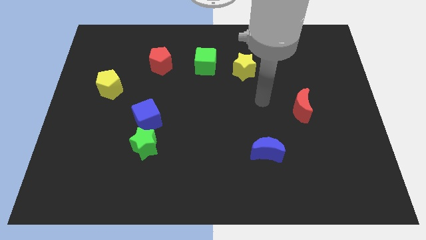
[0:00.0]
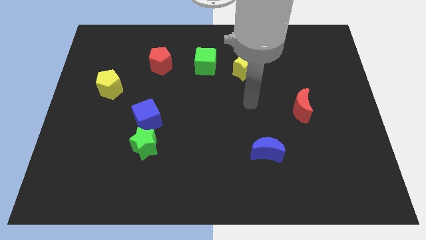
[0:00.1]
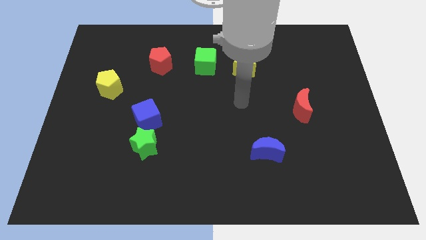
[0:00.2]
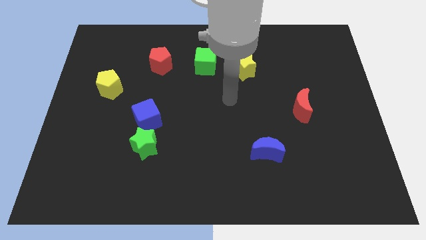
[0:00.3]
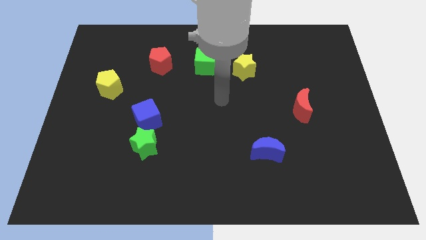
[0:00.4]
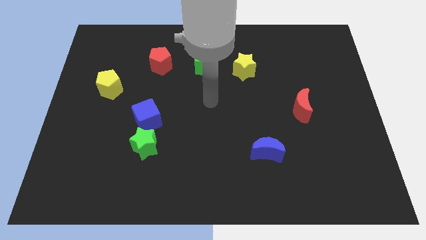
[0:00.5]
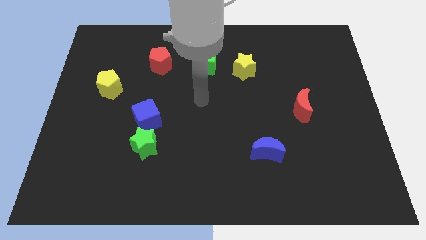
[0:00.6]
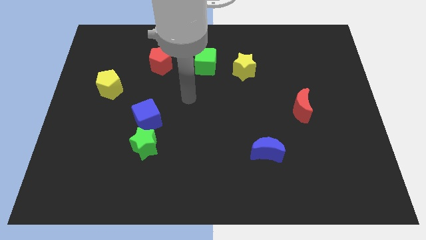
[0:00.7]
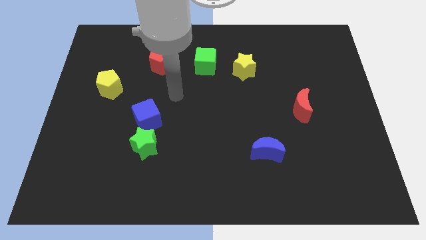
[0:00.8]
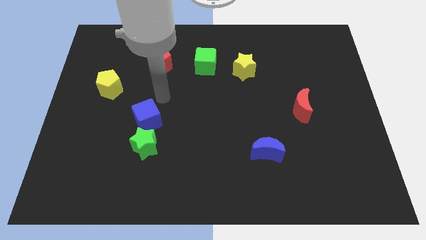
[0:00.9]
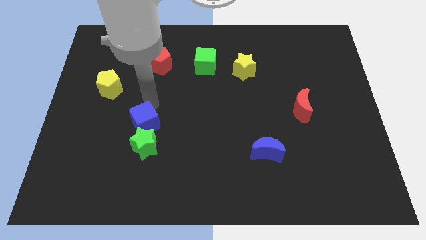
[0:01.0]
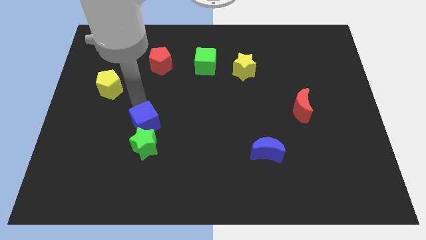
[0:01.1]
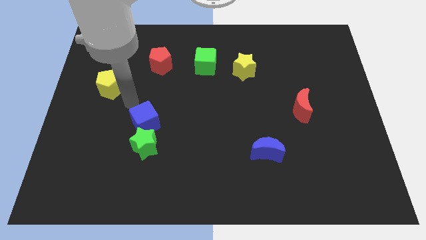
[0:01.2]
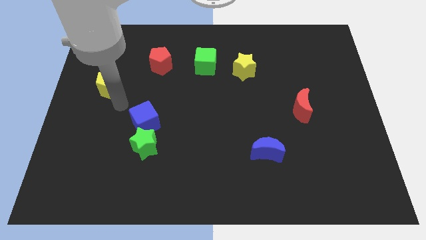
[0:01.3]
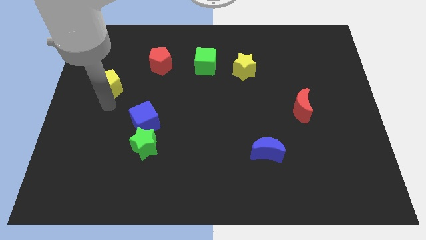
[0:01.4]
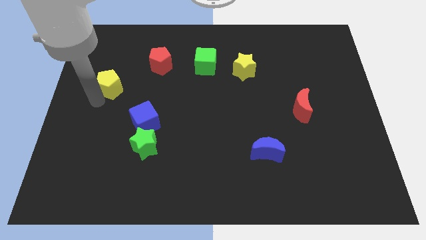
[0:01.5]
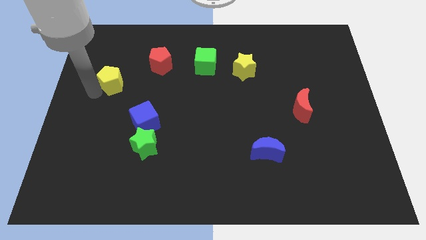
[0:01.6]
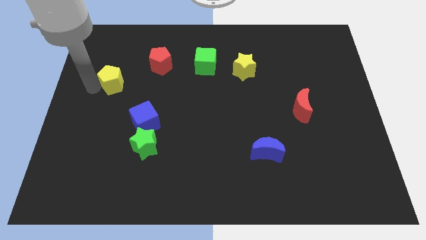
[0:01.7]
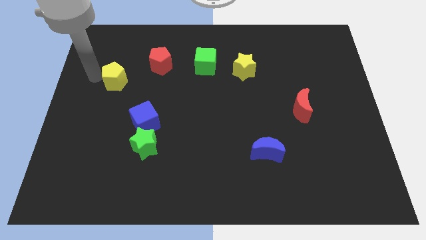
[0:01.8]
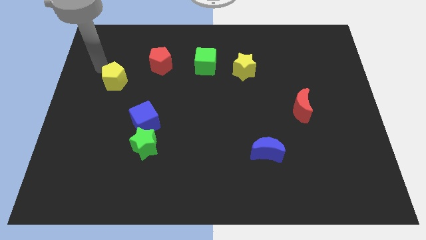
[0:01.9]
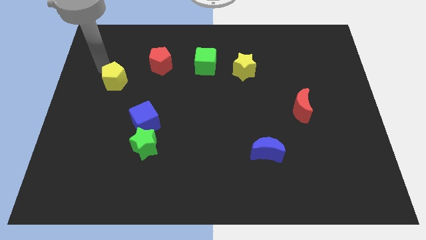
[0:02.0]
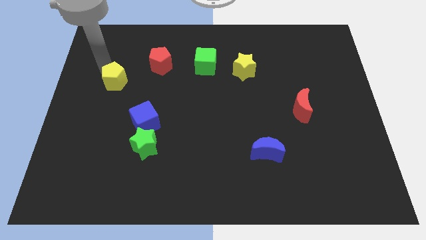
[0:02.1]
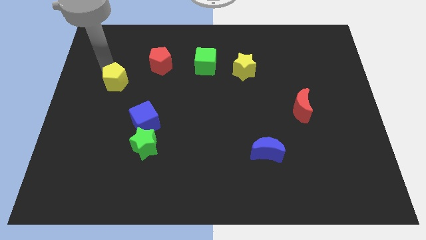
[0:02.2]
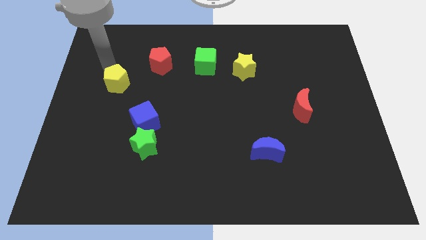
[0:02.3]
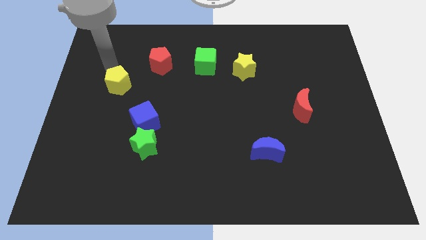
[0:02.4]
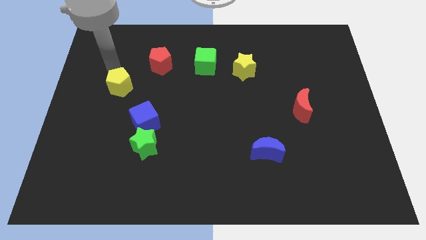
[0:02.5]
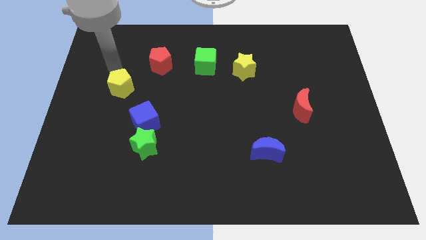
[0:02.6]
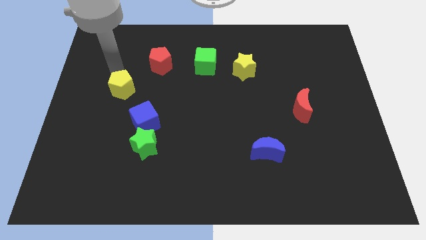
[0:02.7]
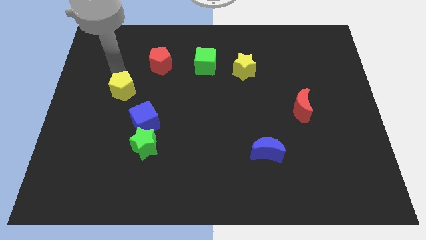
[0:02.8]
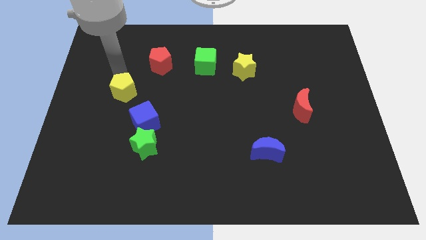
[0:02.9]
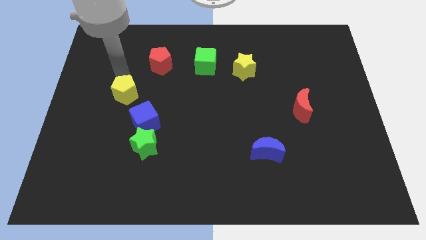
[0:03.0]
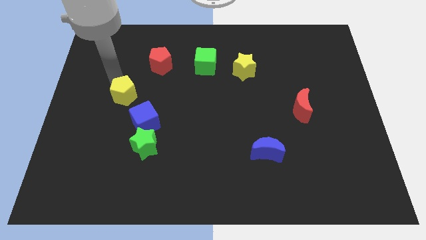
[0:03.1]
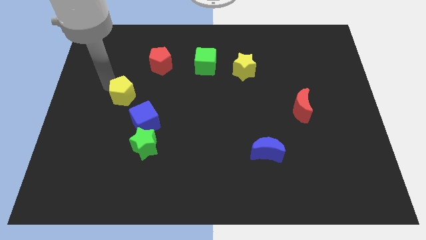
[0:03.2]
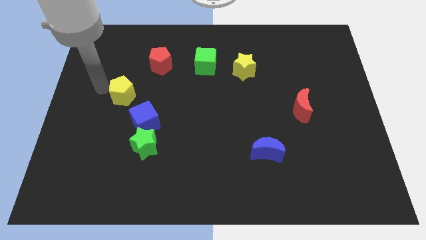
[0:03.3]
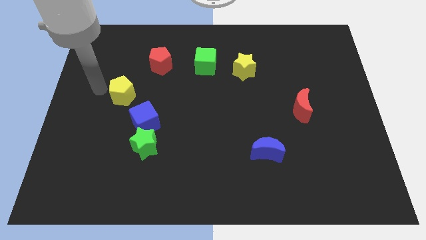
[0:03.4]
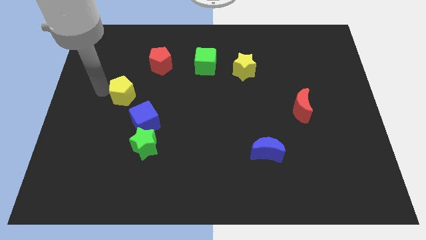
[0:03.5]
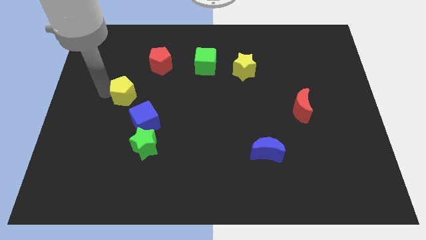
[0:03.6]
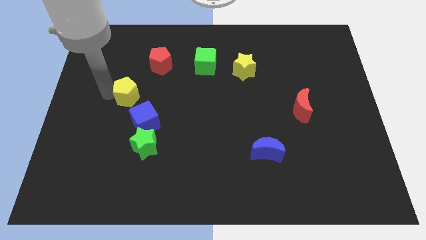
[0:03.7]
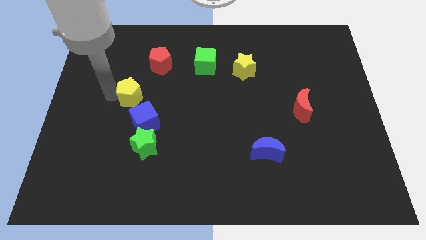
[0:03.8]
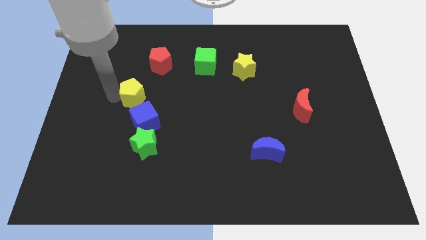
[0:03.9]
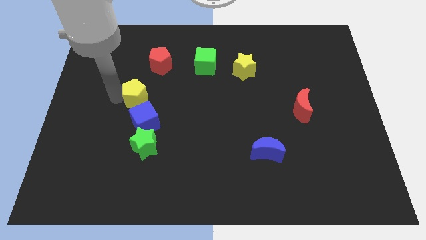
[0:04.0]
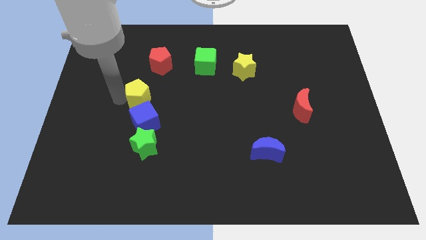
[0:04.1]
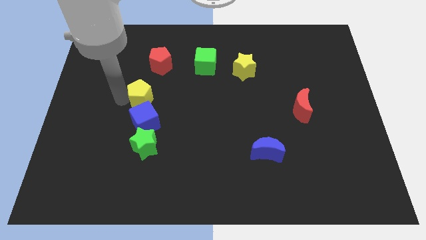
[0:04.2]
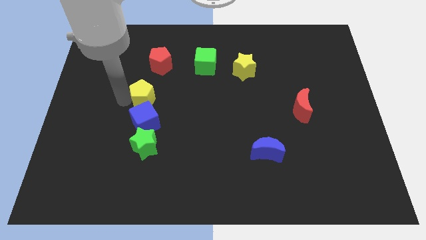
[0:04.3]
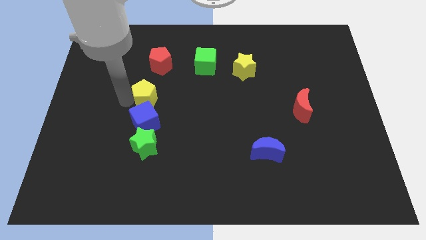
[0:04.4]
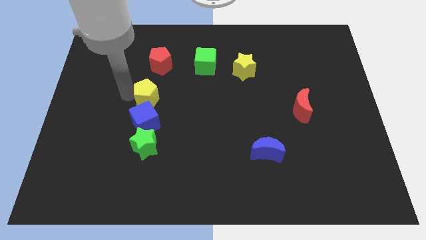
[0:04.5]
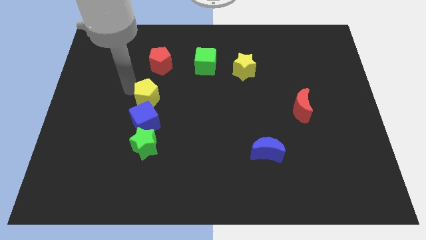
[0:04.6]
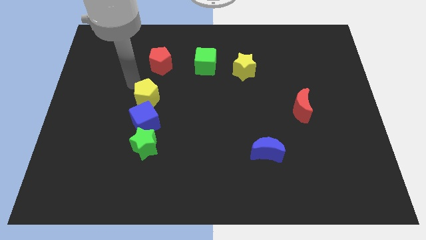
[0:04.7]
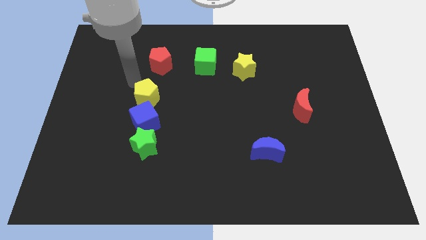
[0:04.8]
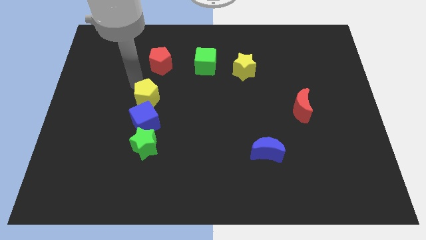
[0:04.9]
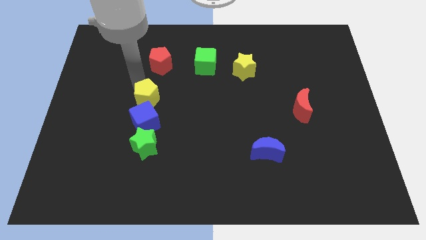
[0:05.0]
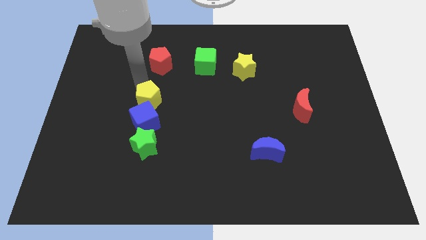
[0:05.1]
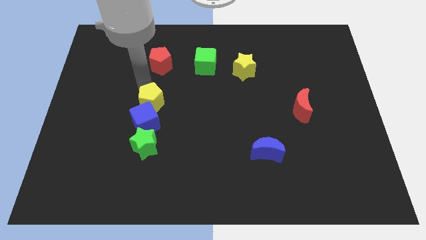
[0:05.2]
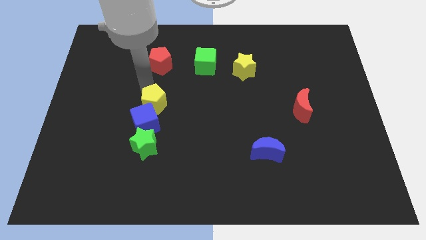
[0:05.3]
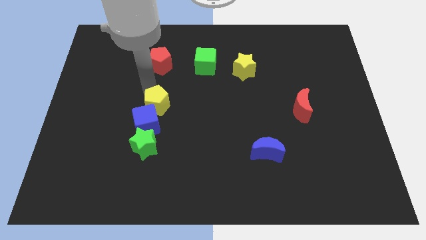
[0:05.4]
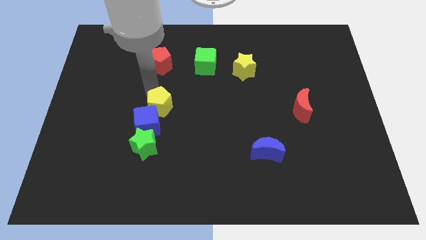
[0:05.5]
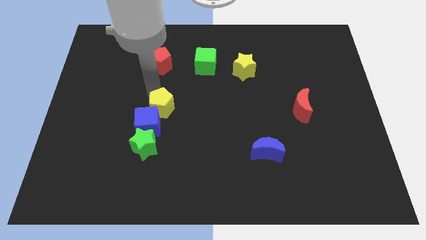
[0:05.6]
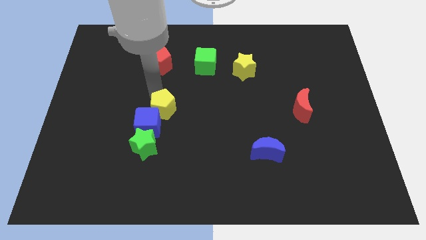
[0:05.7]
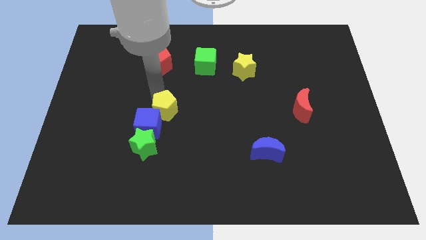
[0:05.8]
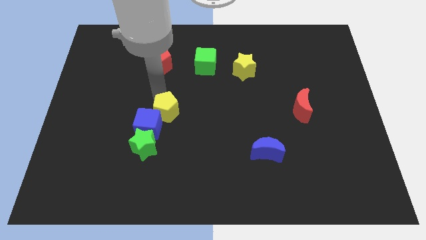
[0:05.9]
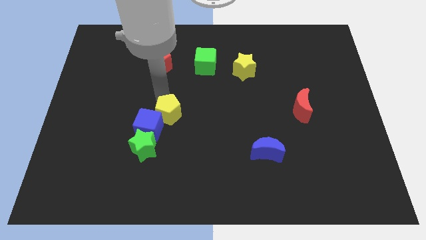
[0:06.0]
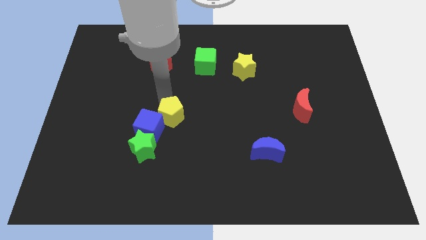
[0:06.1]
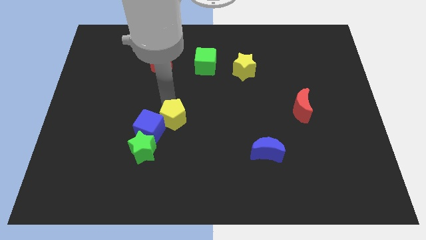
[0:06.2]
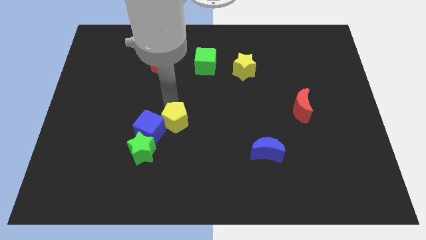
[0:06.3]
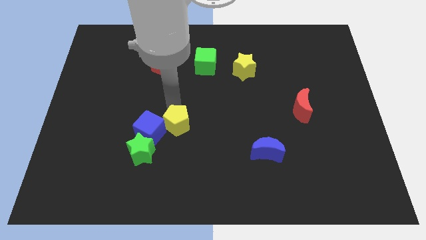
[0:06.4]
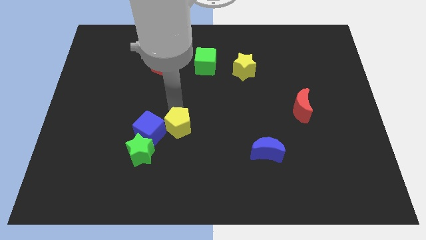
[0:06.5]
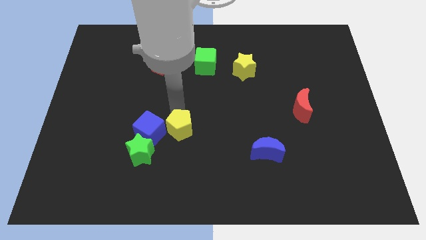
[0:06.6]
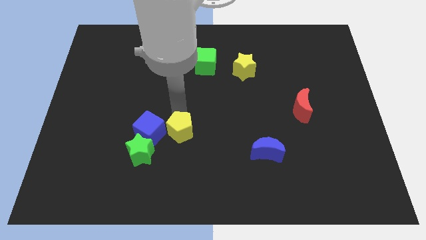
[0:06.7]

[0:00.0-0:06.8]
push the yellow pentagon to the bottom right of the blue cube
